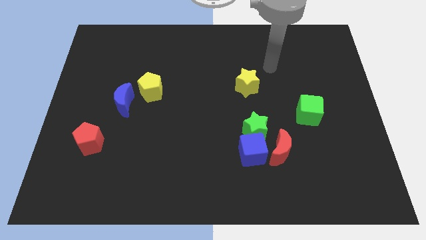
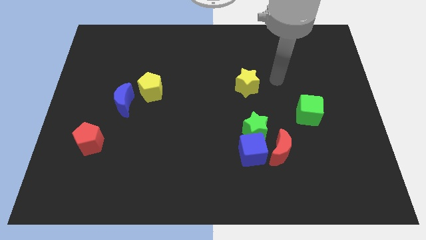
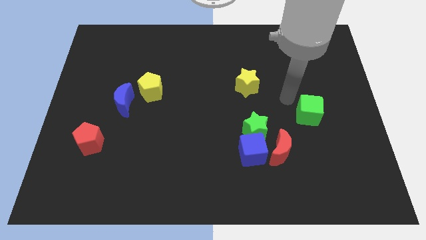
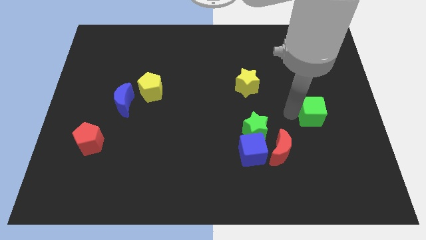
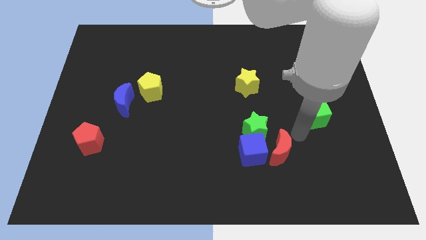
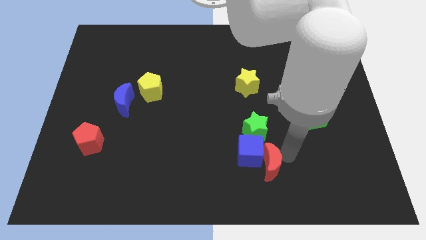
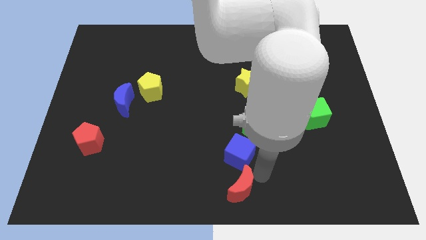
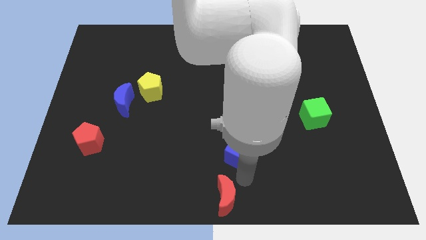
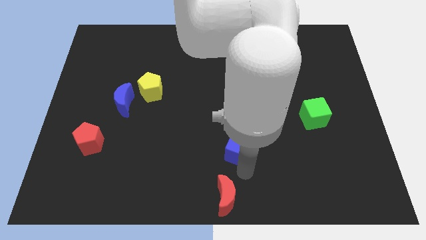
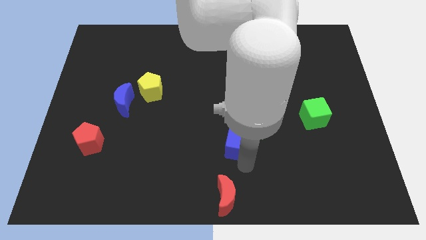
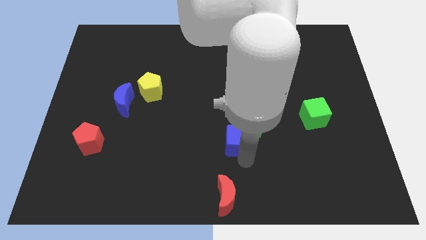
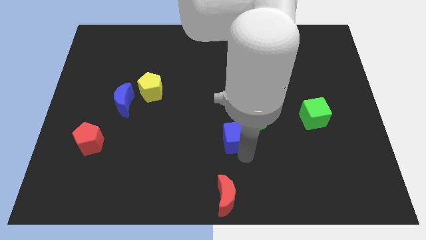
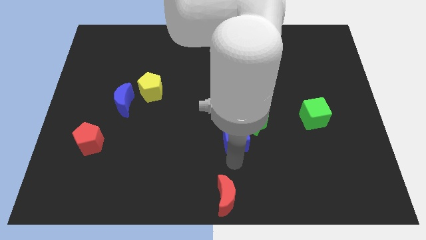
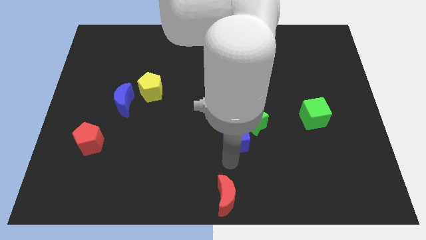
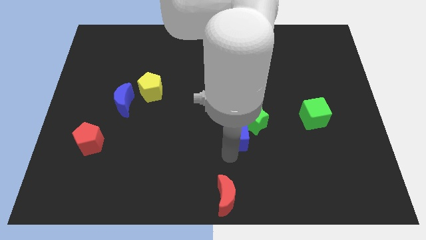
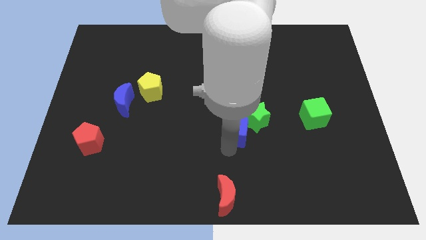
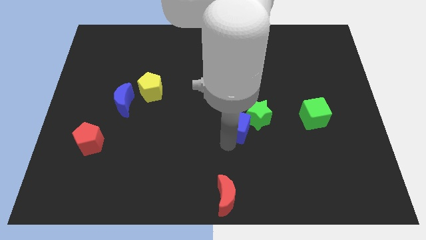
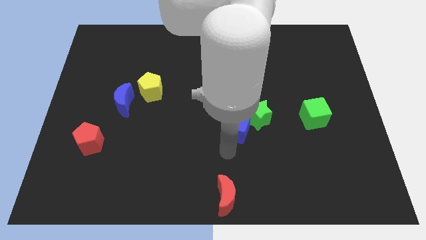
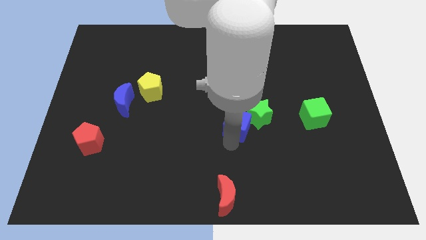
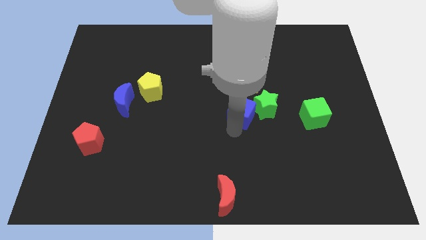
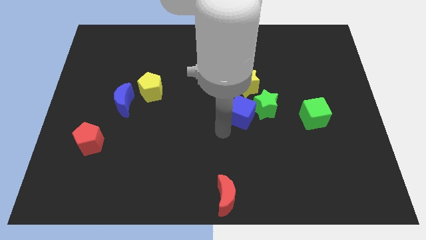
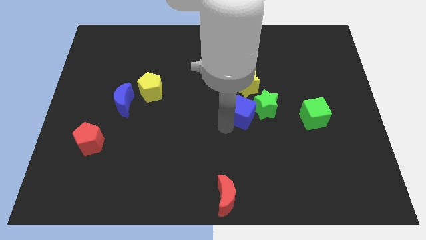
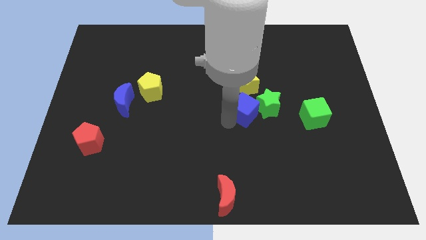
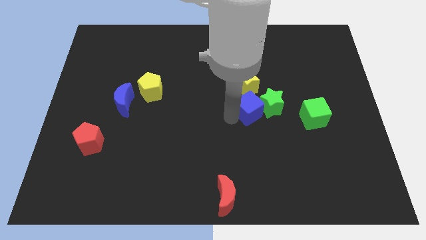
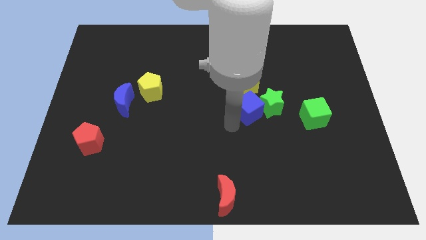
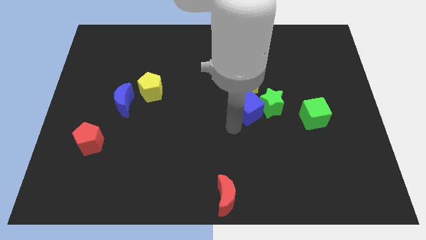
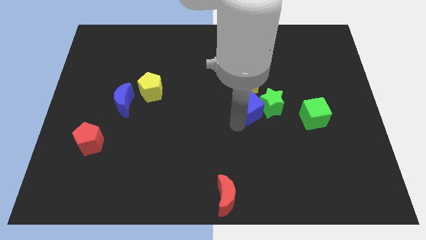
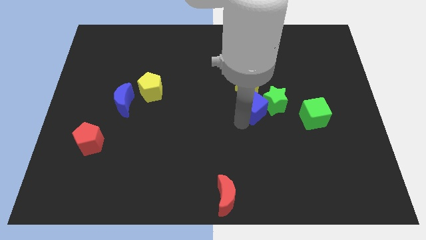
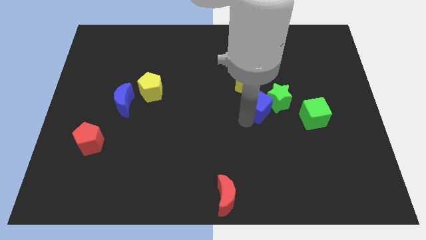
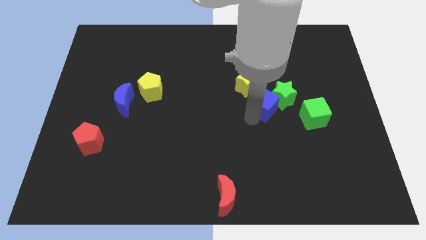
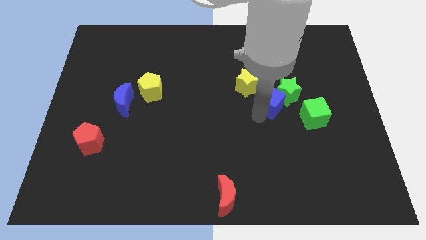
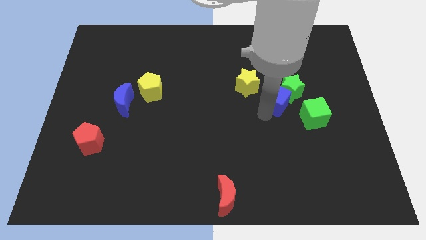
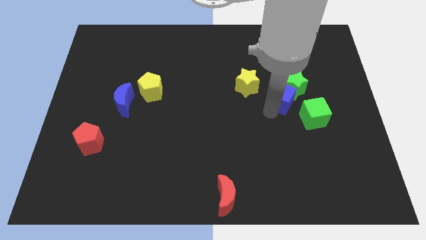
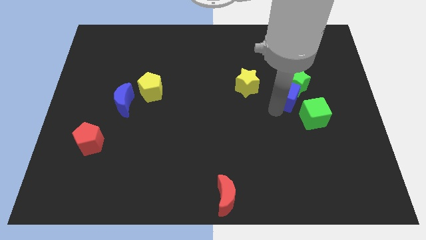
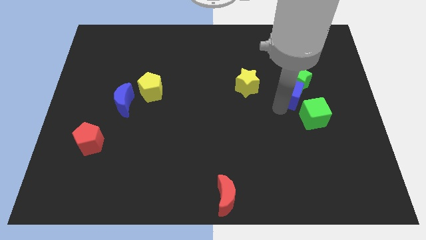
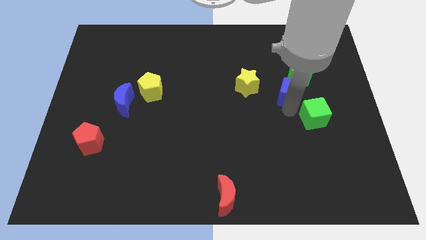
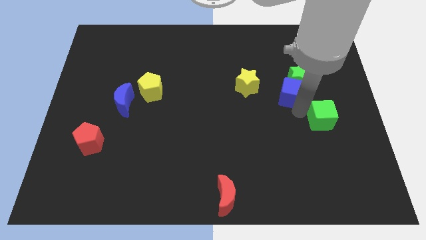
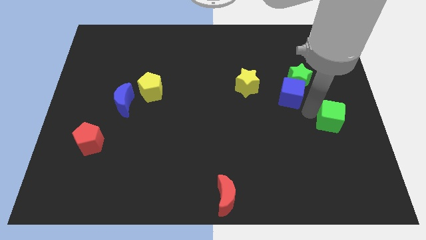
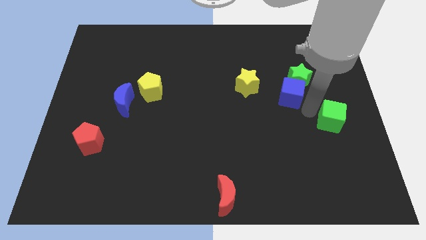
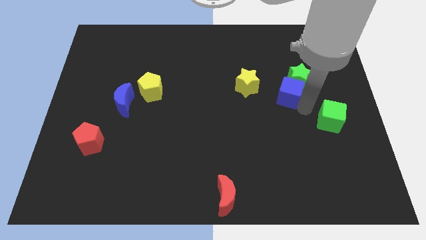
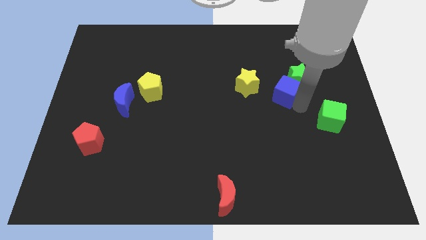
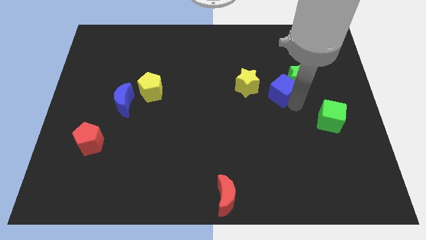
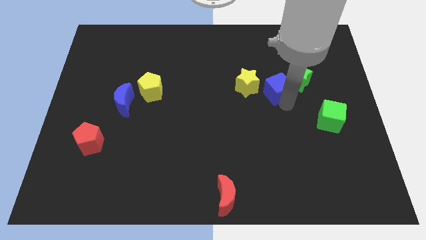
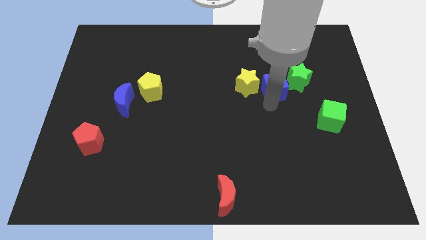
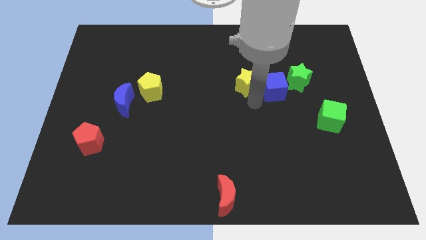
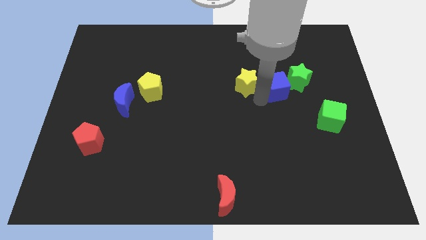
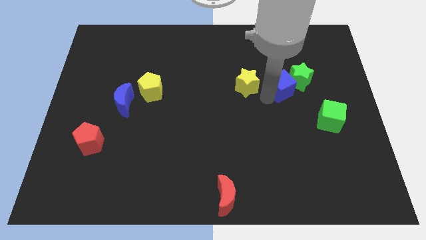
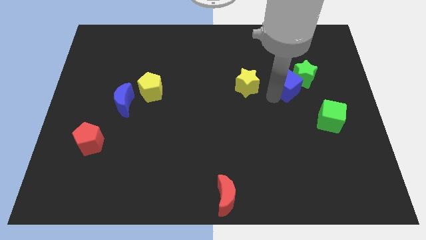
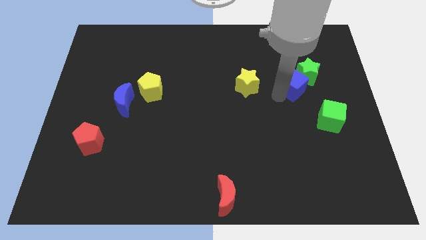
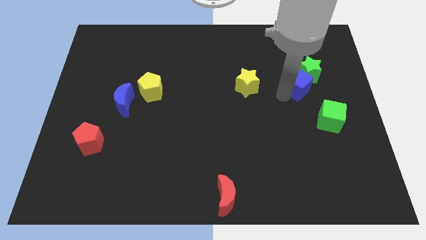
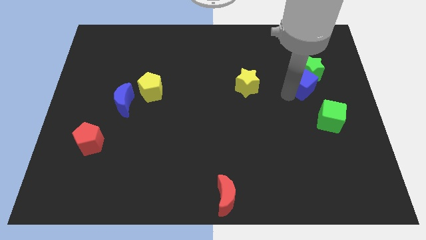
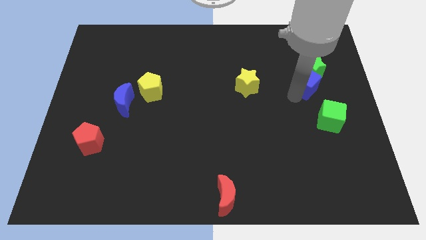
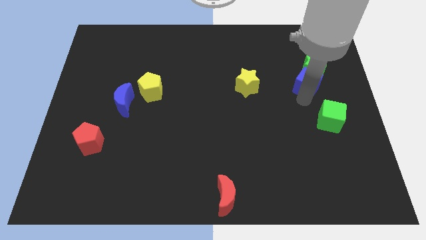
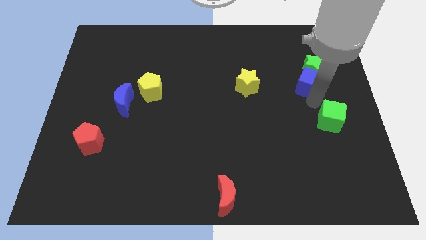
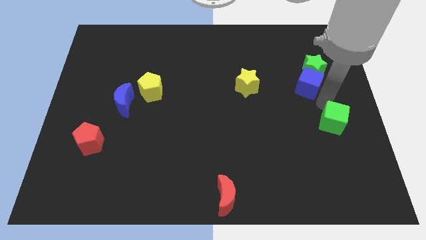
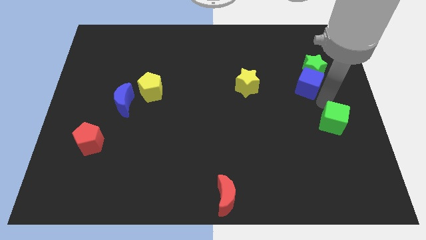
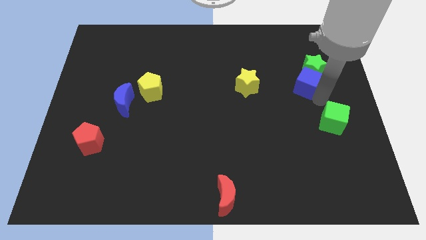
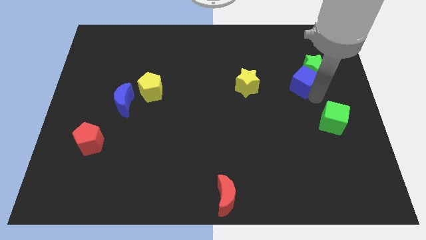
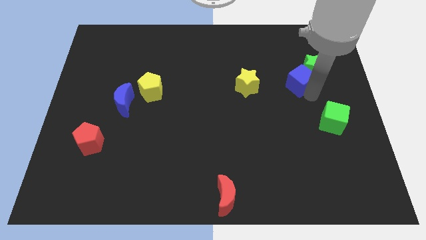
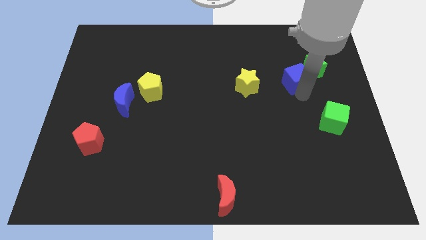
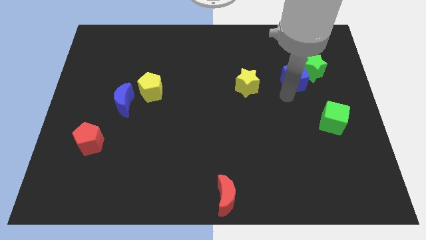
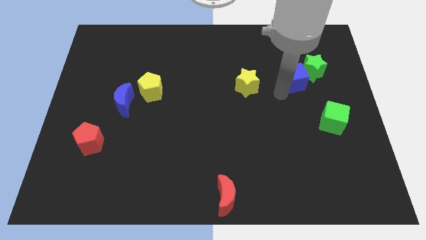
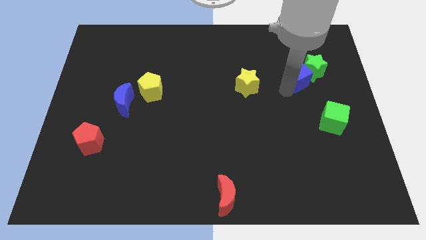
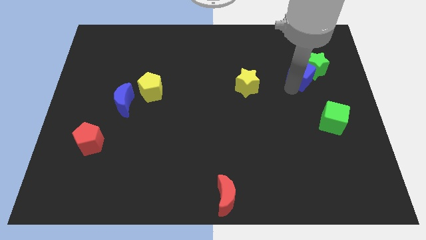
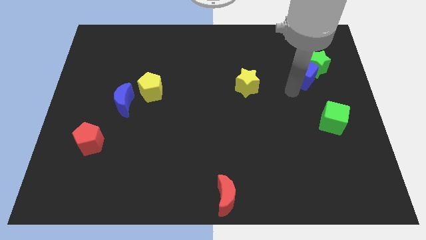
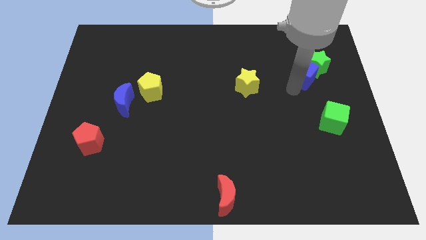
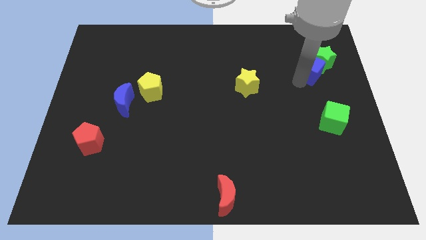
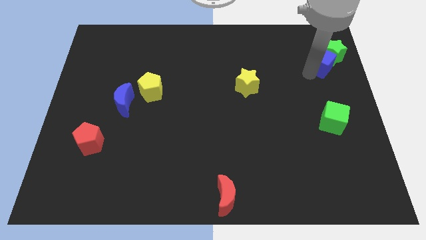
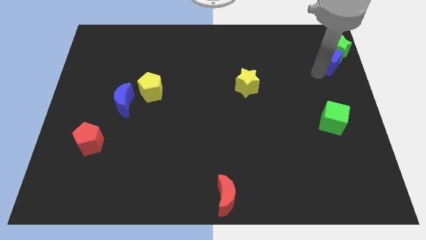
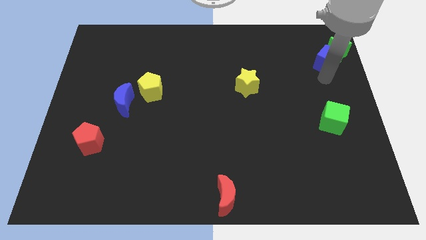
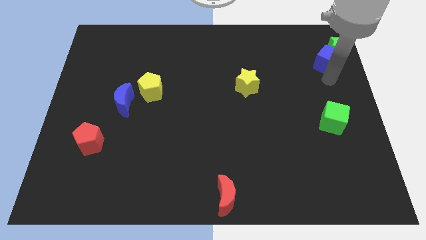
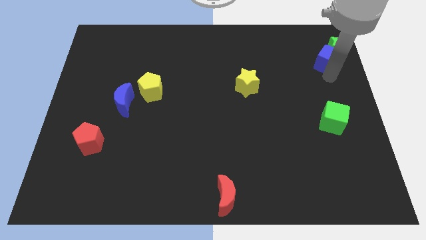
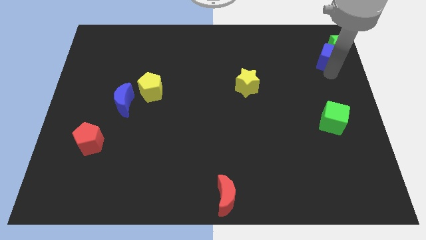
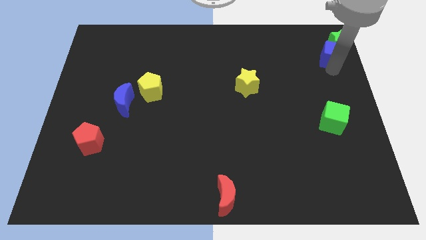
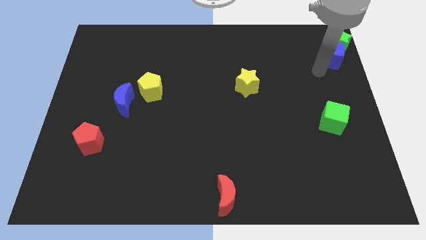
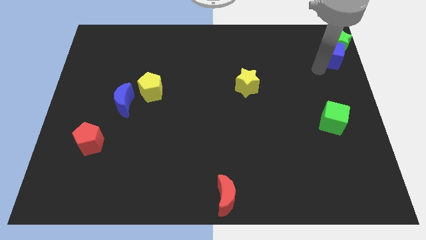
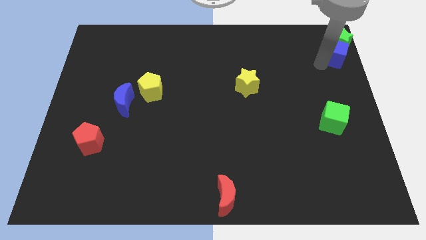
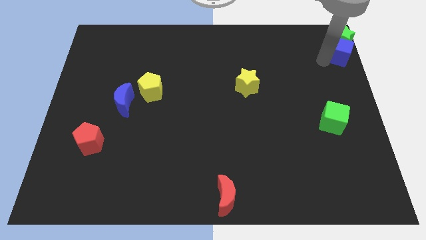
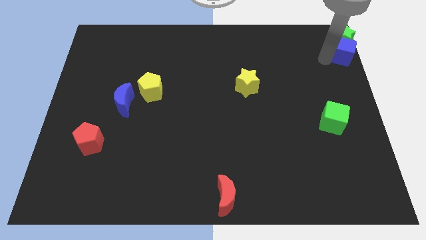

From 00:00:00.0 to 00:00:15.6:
move the blue cube to the top right
